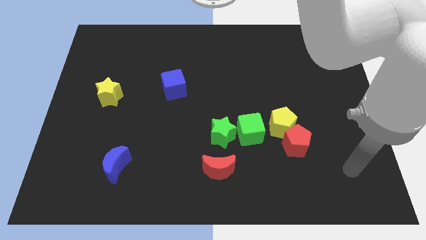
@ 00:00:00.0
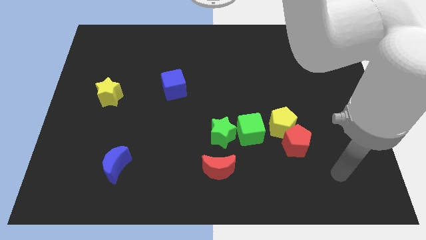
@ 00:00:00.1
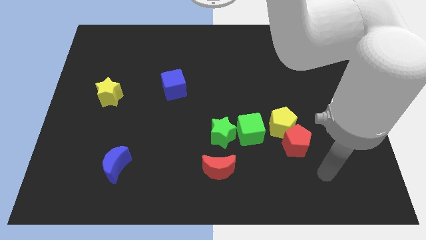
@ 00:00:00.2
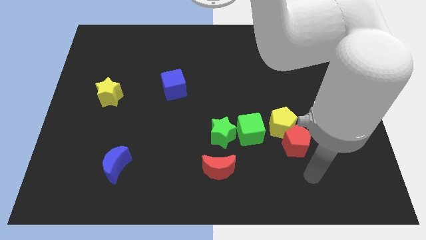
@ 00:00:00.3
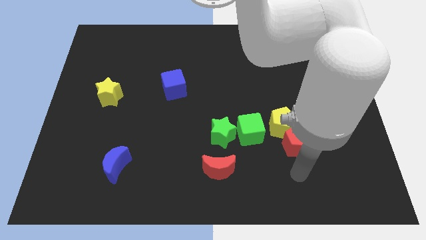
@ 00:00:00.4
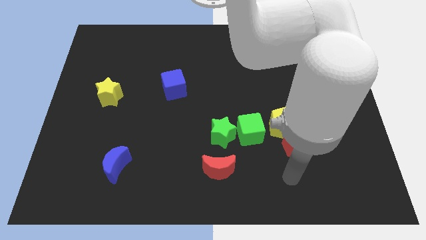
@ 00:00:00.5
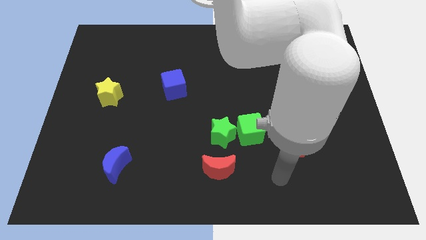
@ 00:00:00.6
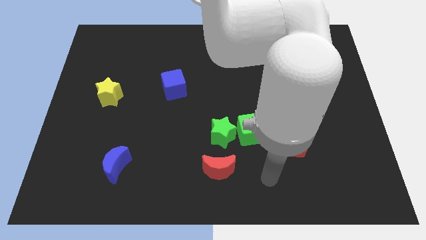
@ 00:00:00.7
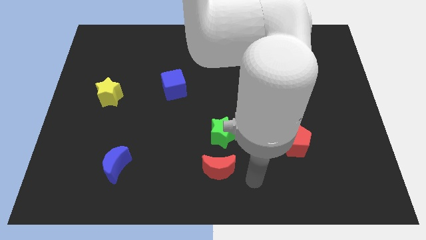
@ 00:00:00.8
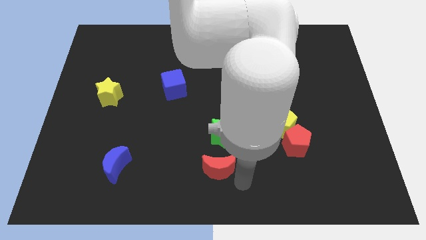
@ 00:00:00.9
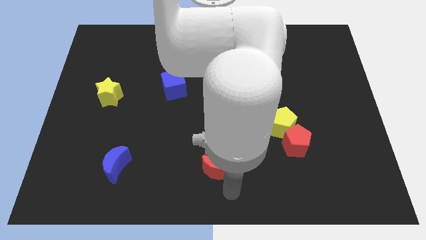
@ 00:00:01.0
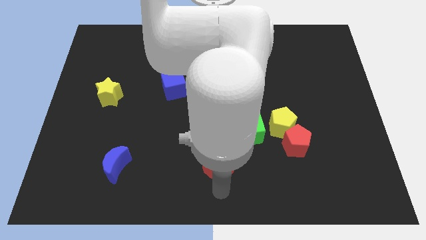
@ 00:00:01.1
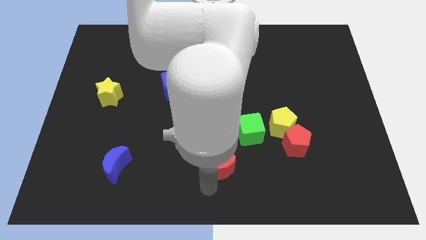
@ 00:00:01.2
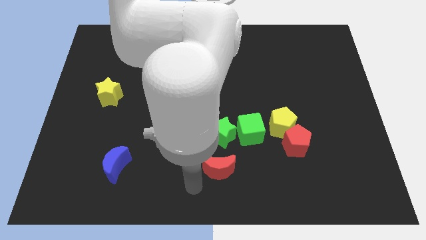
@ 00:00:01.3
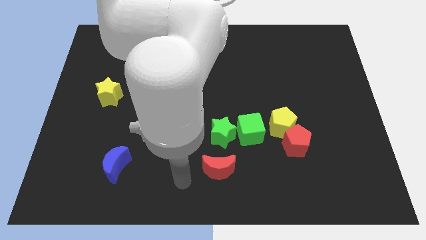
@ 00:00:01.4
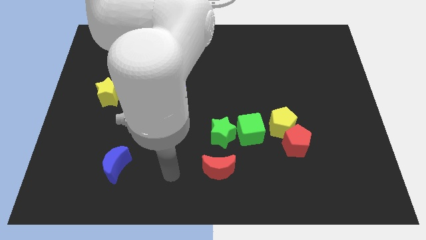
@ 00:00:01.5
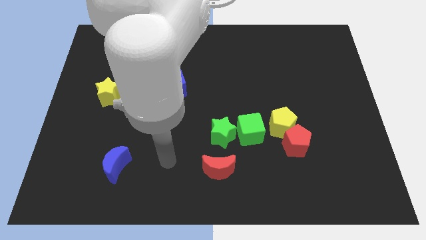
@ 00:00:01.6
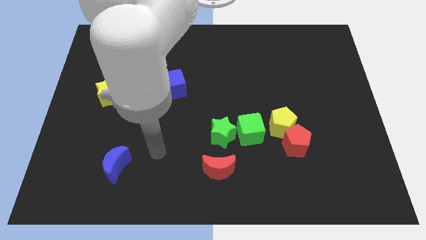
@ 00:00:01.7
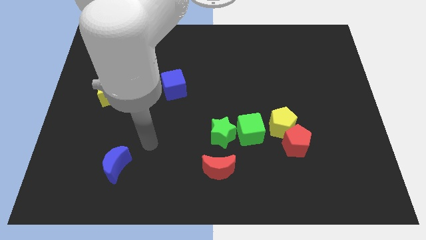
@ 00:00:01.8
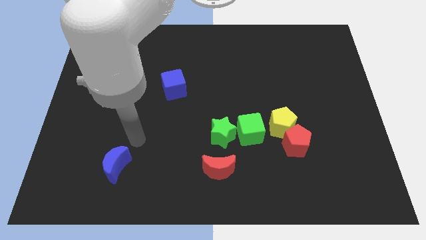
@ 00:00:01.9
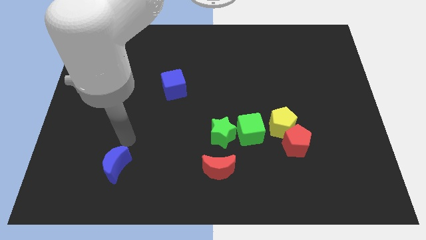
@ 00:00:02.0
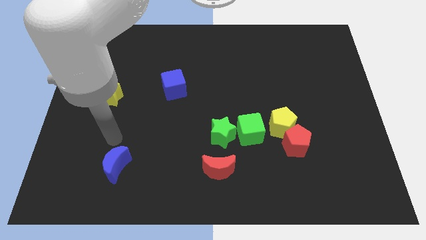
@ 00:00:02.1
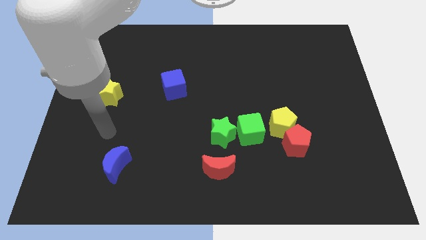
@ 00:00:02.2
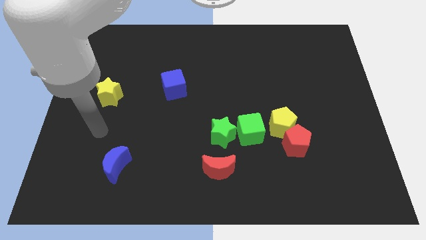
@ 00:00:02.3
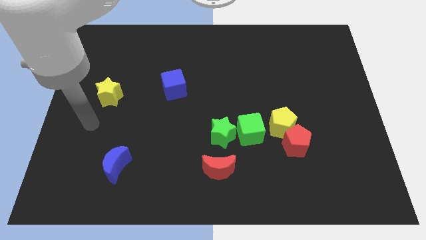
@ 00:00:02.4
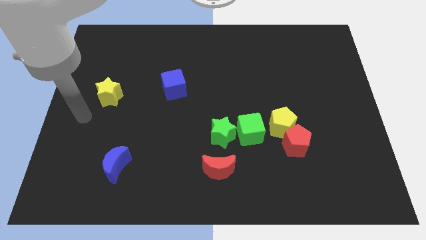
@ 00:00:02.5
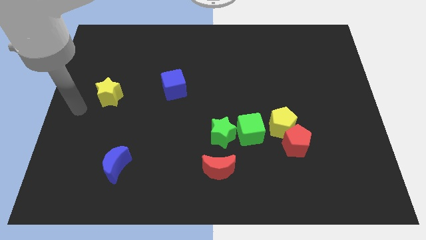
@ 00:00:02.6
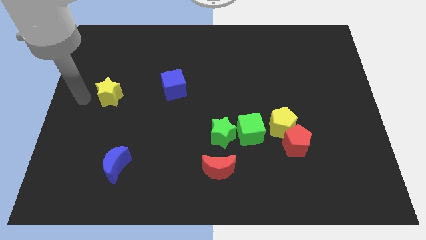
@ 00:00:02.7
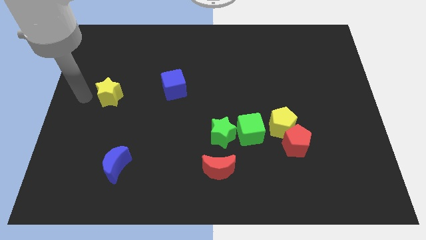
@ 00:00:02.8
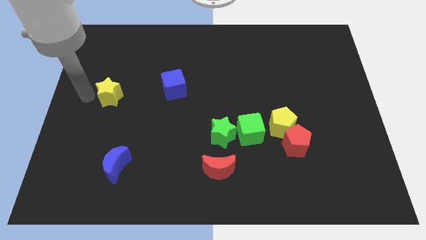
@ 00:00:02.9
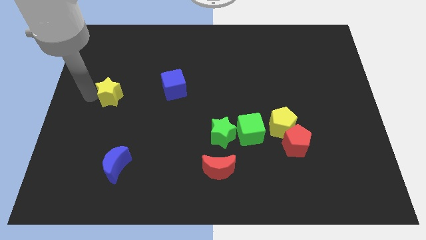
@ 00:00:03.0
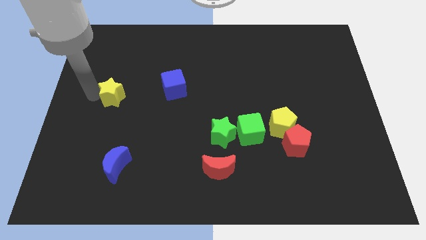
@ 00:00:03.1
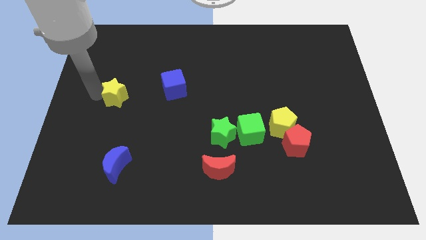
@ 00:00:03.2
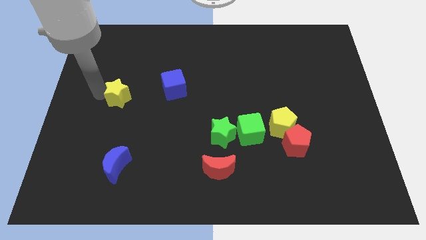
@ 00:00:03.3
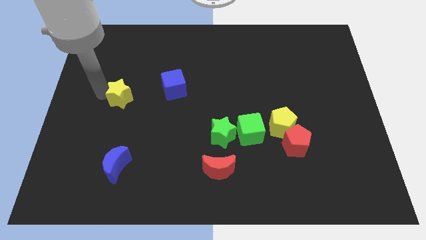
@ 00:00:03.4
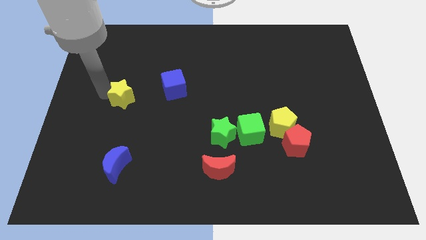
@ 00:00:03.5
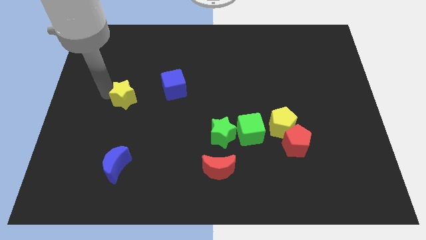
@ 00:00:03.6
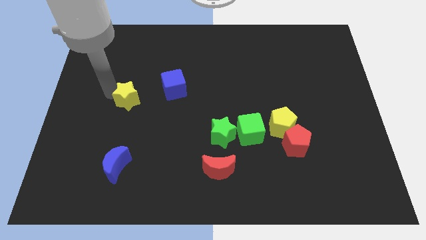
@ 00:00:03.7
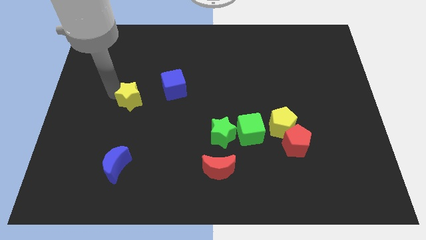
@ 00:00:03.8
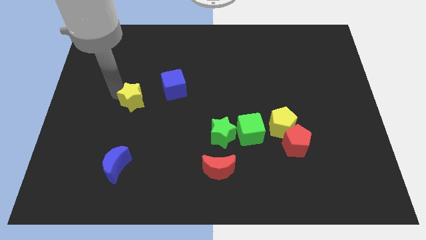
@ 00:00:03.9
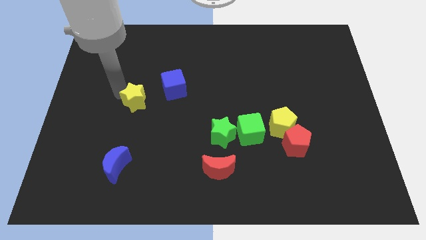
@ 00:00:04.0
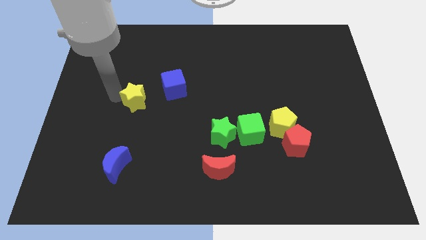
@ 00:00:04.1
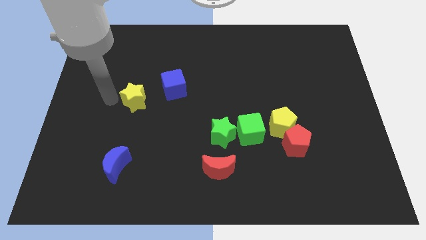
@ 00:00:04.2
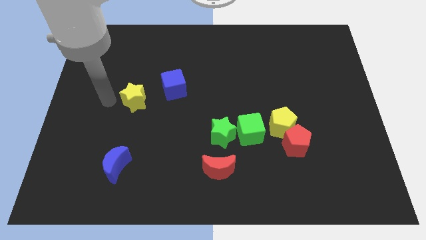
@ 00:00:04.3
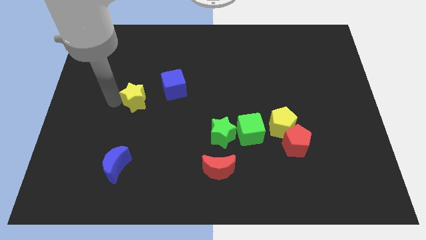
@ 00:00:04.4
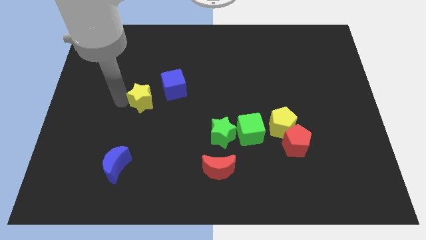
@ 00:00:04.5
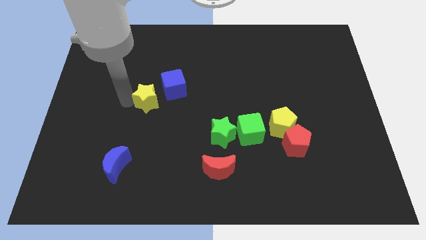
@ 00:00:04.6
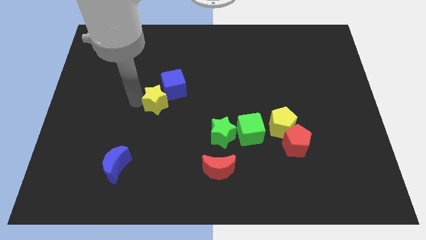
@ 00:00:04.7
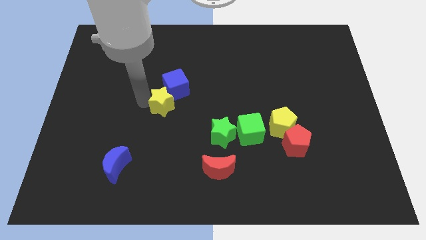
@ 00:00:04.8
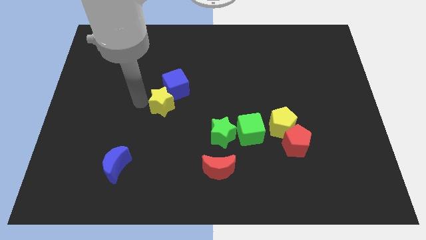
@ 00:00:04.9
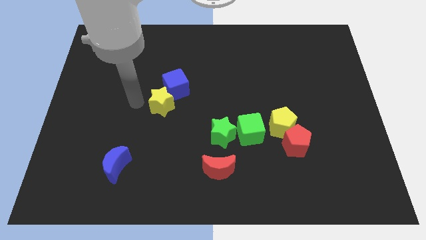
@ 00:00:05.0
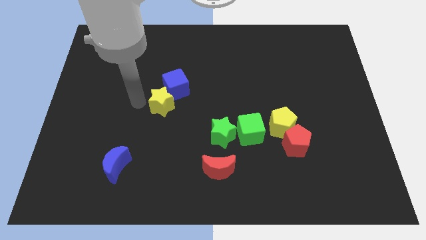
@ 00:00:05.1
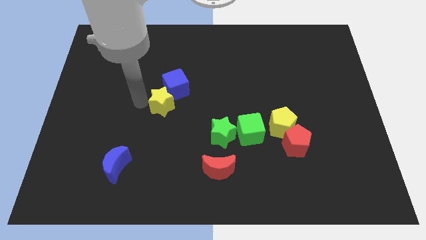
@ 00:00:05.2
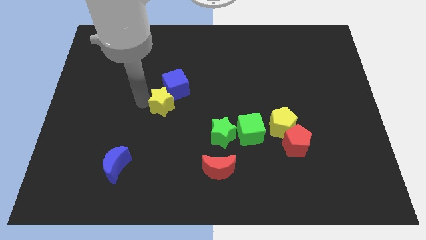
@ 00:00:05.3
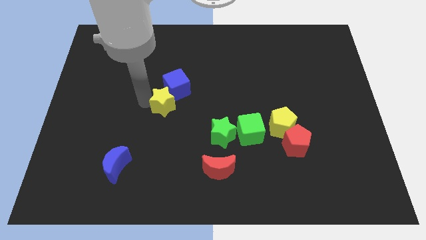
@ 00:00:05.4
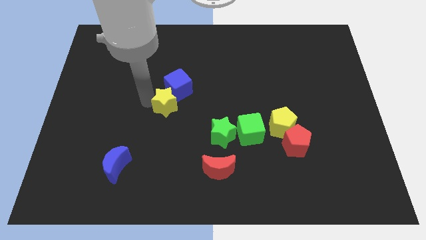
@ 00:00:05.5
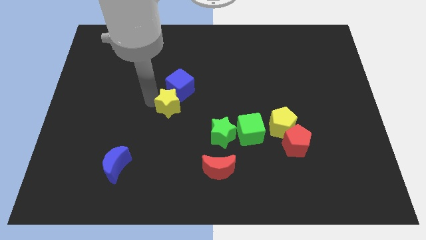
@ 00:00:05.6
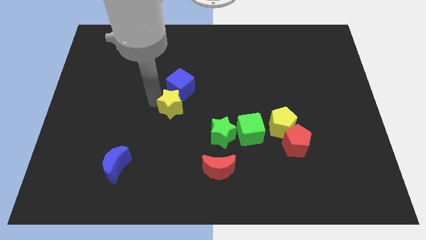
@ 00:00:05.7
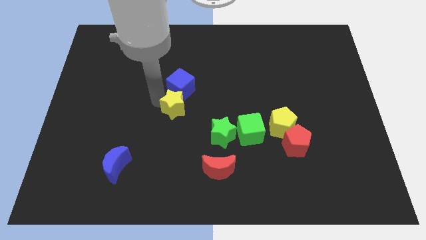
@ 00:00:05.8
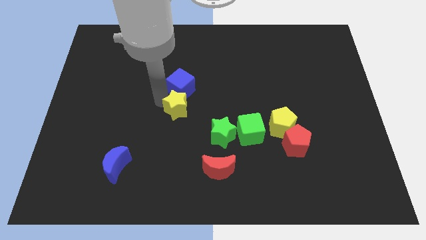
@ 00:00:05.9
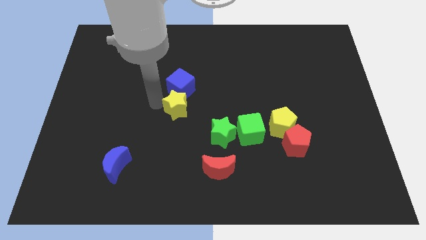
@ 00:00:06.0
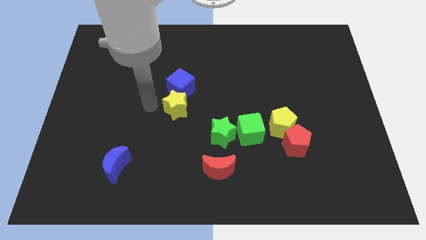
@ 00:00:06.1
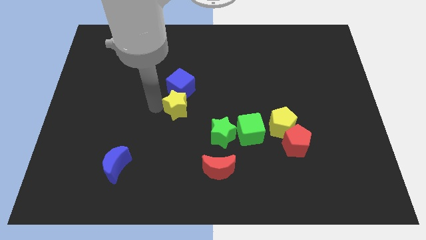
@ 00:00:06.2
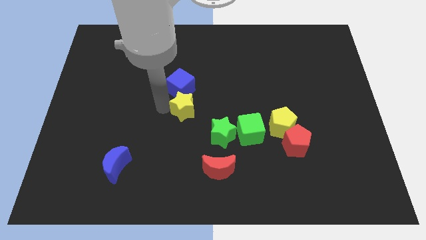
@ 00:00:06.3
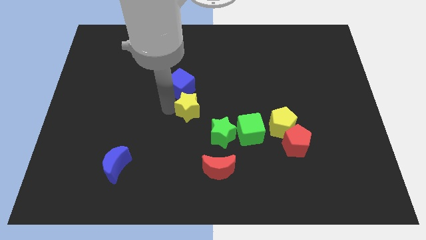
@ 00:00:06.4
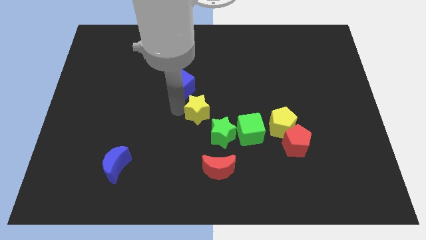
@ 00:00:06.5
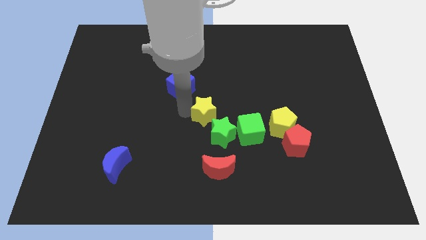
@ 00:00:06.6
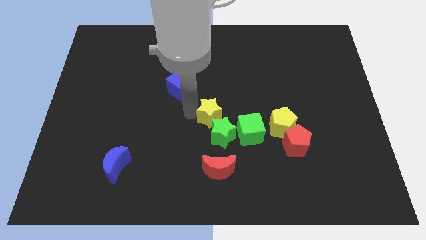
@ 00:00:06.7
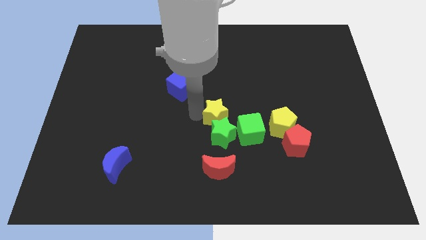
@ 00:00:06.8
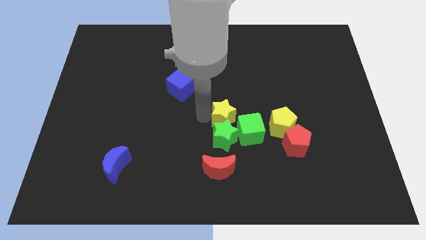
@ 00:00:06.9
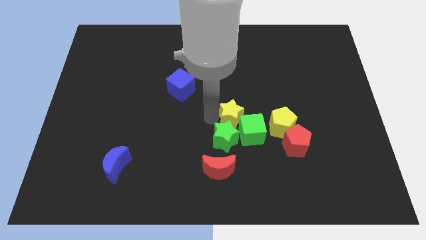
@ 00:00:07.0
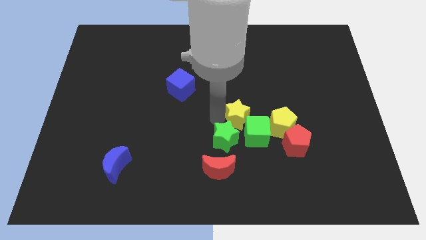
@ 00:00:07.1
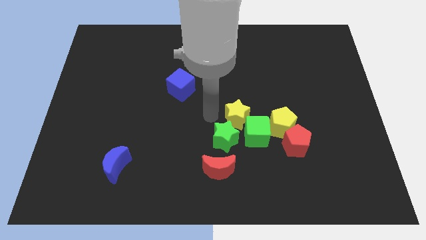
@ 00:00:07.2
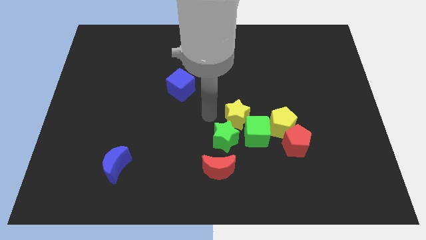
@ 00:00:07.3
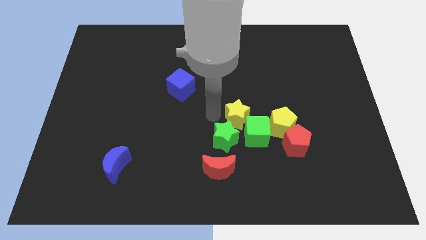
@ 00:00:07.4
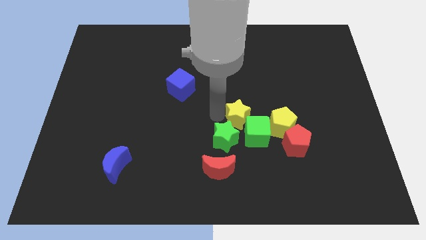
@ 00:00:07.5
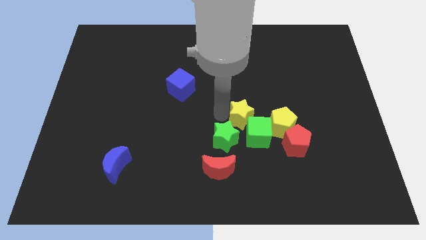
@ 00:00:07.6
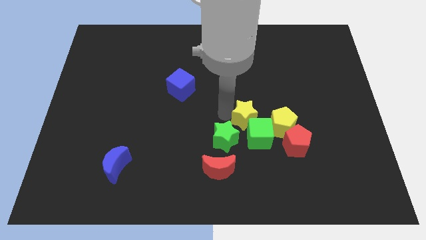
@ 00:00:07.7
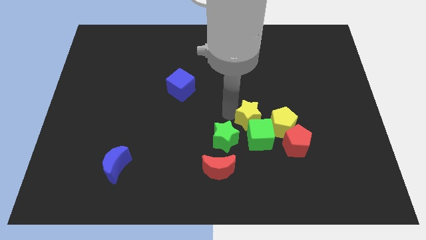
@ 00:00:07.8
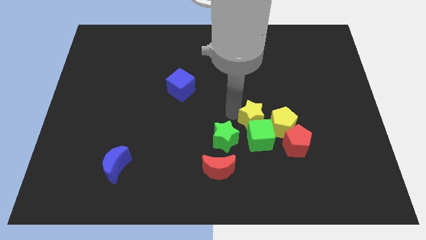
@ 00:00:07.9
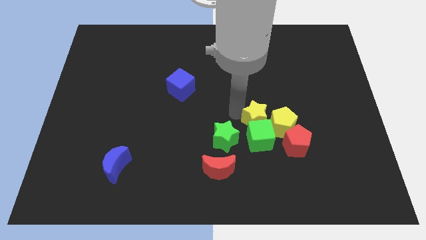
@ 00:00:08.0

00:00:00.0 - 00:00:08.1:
move the yellow star next to the yellow pentagon
